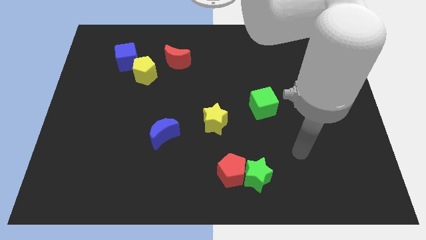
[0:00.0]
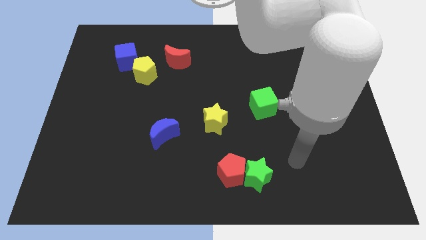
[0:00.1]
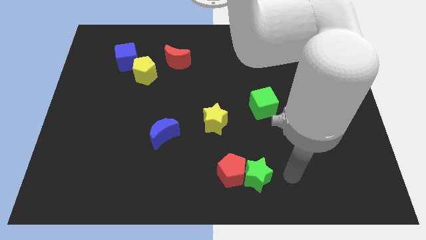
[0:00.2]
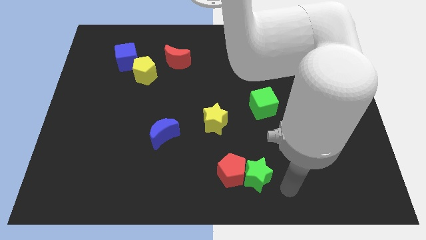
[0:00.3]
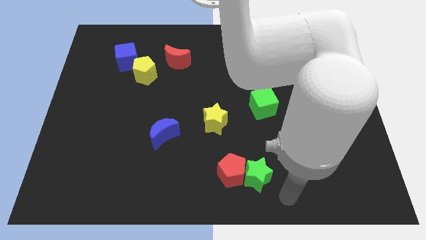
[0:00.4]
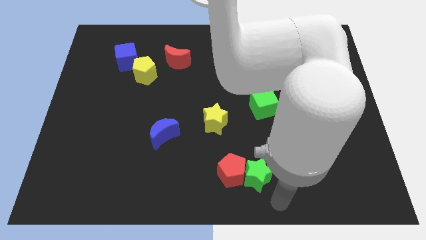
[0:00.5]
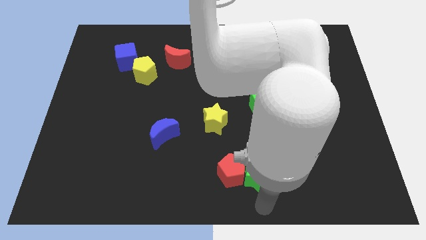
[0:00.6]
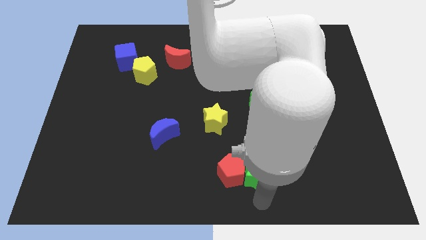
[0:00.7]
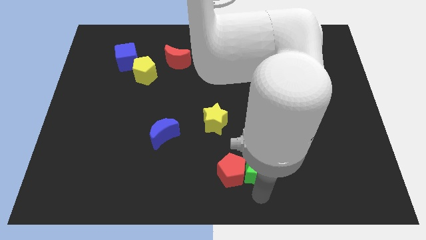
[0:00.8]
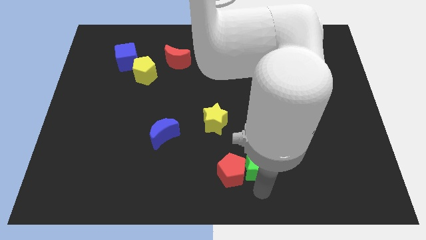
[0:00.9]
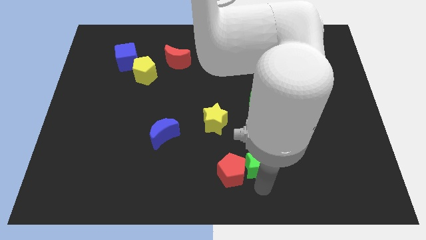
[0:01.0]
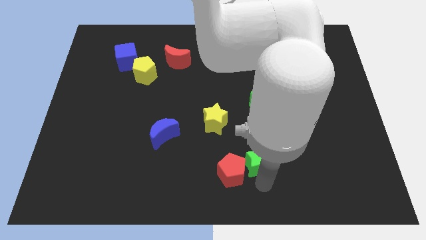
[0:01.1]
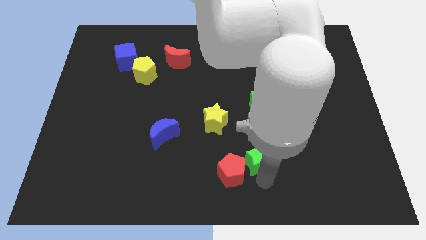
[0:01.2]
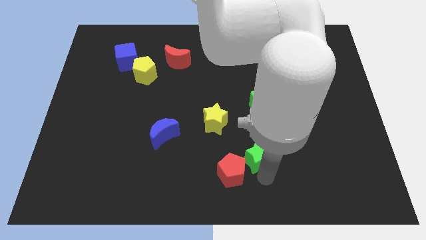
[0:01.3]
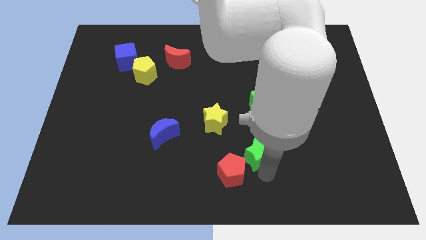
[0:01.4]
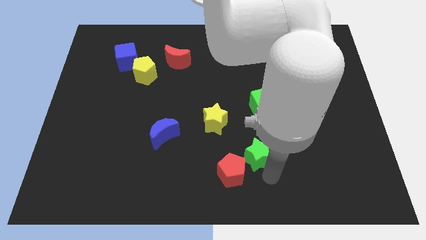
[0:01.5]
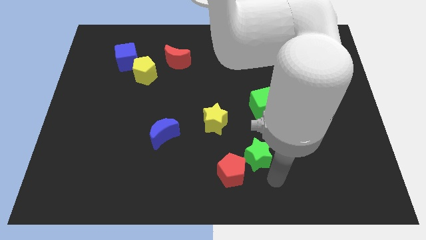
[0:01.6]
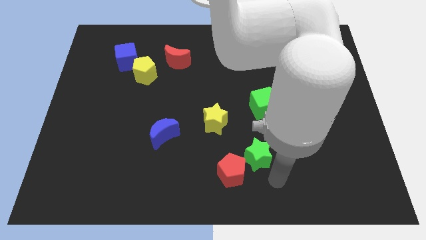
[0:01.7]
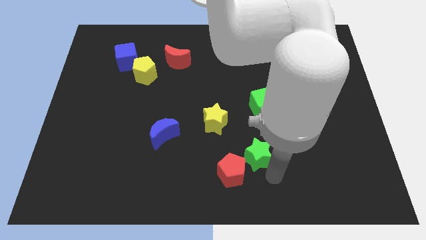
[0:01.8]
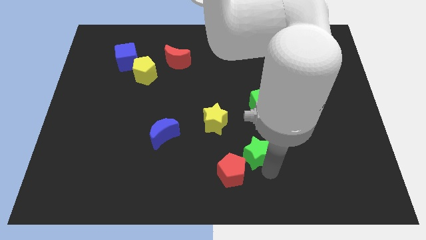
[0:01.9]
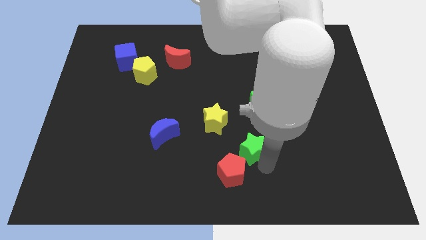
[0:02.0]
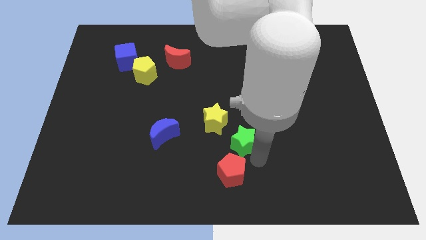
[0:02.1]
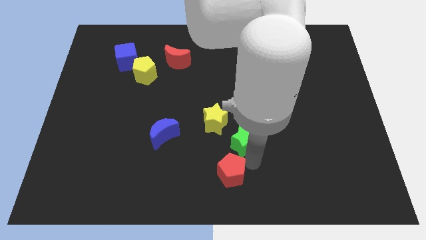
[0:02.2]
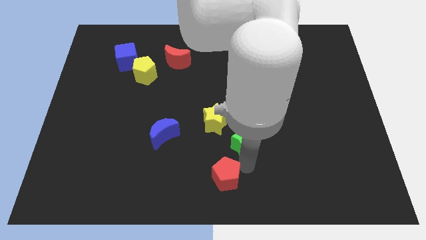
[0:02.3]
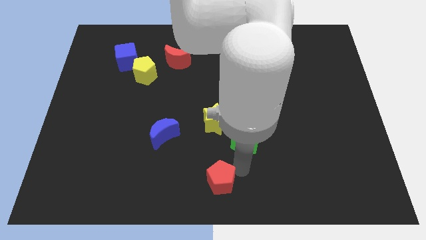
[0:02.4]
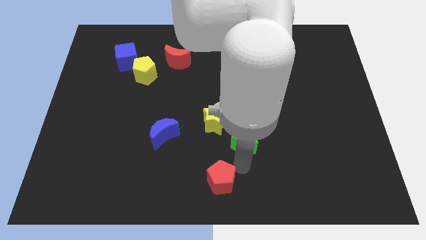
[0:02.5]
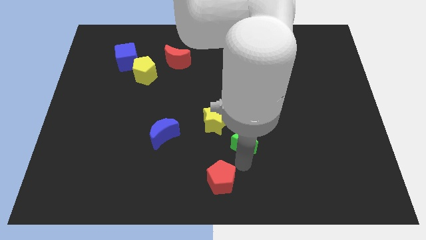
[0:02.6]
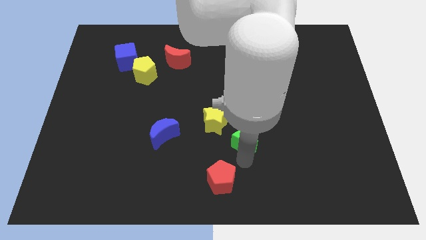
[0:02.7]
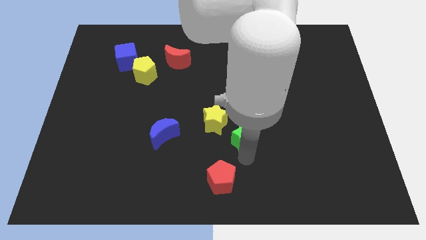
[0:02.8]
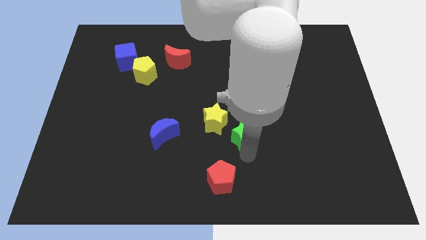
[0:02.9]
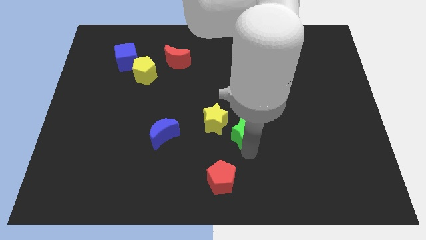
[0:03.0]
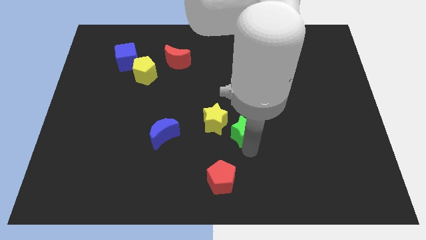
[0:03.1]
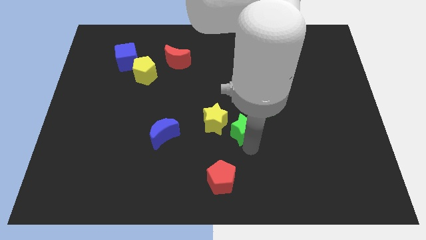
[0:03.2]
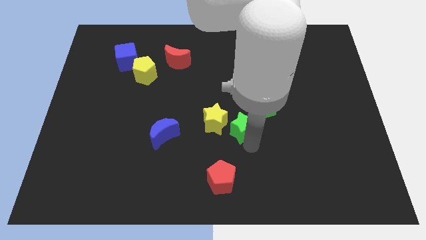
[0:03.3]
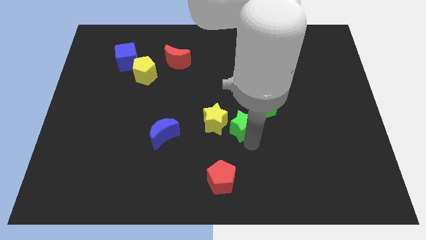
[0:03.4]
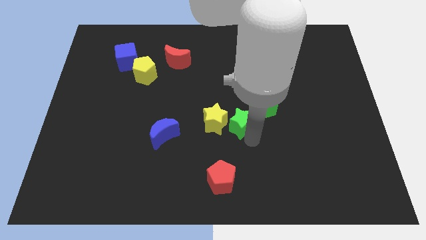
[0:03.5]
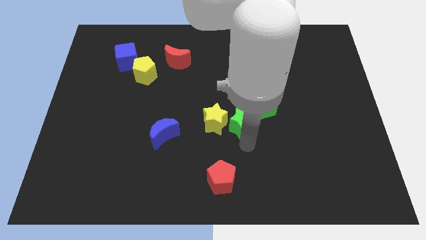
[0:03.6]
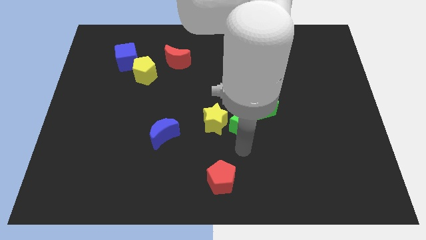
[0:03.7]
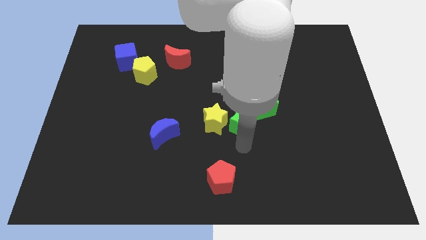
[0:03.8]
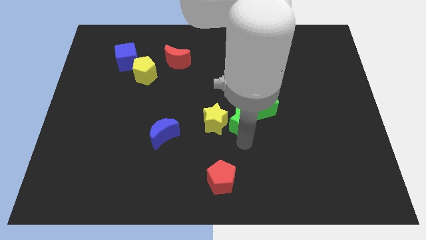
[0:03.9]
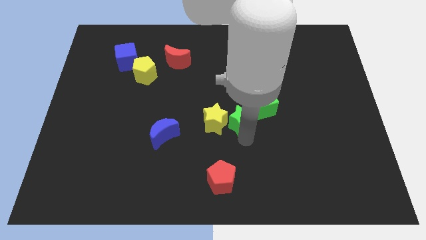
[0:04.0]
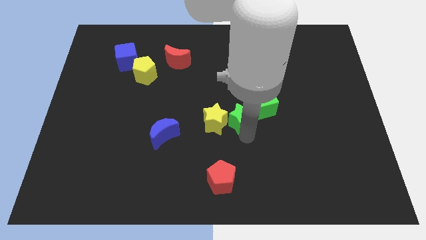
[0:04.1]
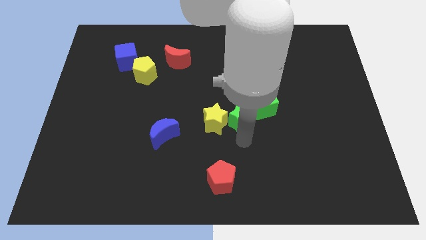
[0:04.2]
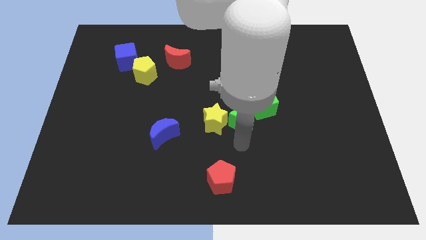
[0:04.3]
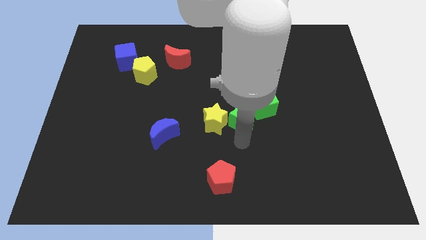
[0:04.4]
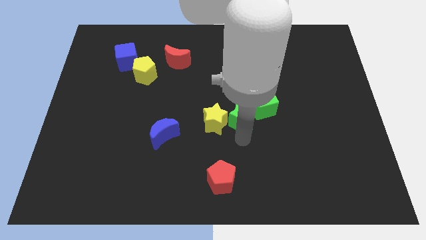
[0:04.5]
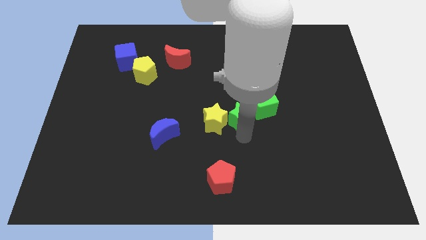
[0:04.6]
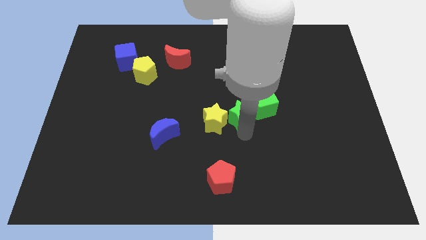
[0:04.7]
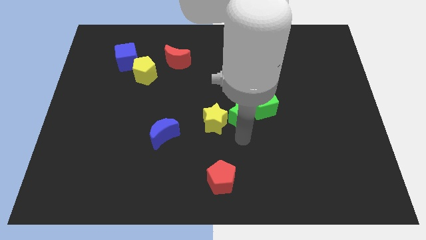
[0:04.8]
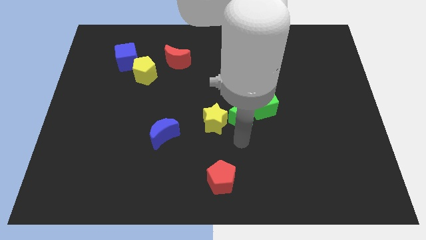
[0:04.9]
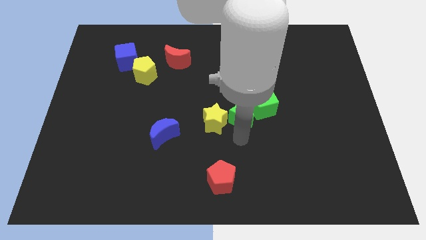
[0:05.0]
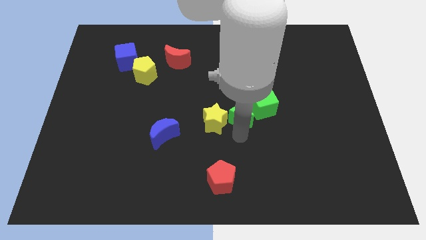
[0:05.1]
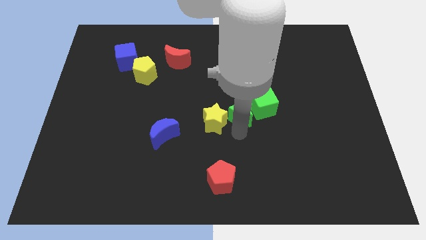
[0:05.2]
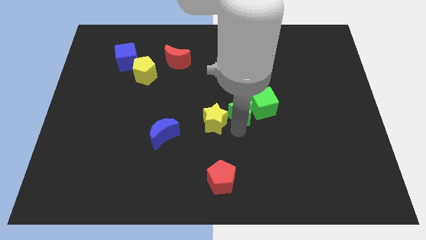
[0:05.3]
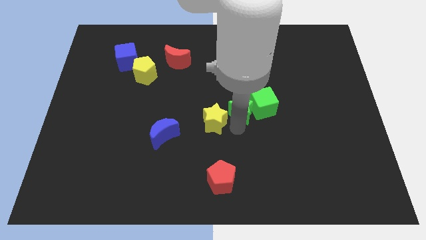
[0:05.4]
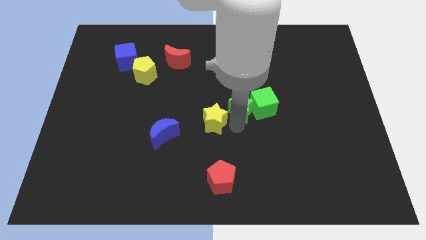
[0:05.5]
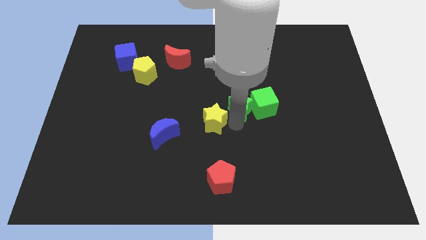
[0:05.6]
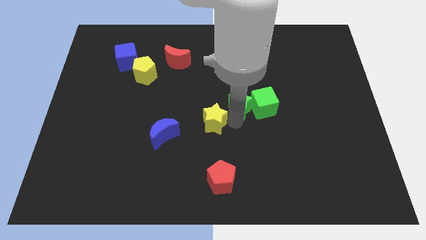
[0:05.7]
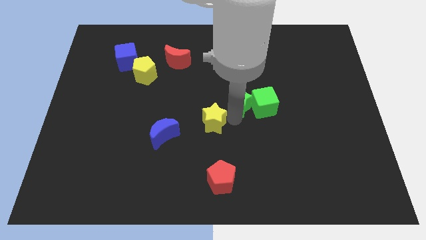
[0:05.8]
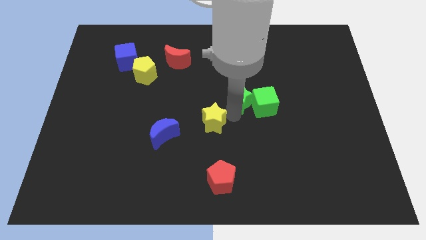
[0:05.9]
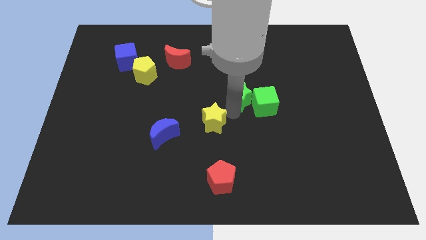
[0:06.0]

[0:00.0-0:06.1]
slide the green star up

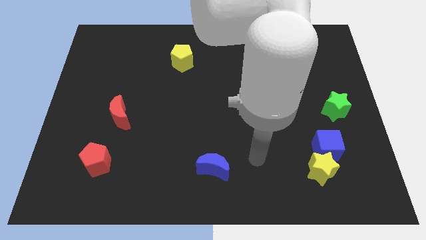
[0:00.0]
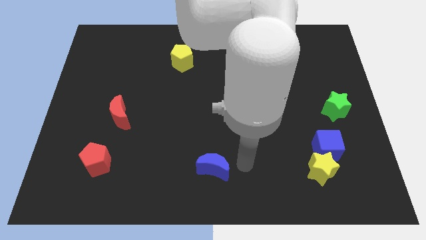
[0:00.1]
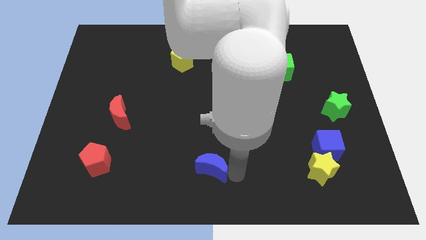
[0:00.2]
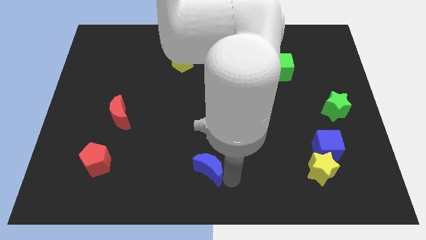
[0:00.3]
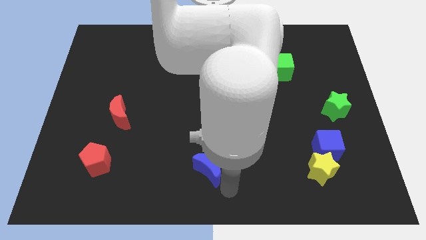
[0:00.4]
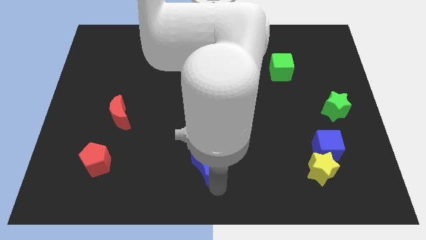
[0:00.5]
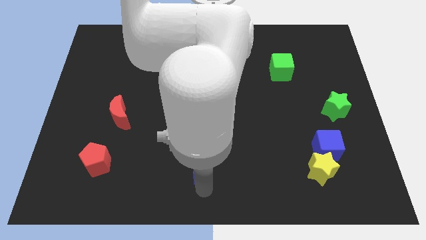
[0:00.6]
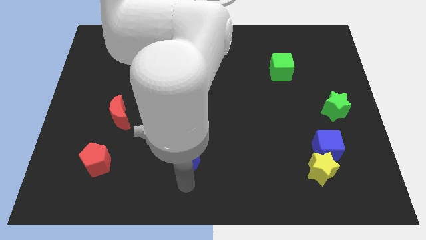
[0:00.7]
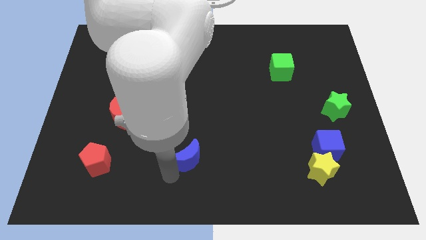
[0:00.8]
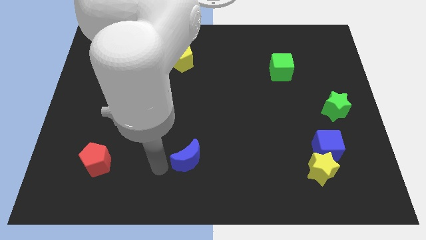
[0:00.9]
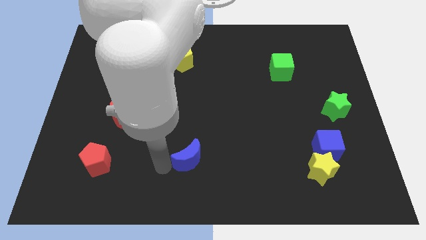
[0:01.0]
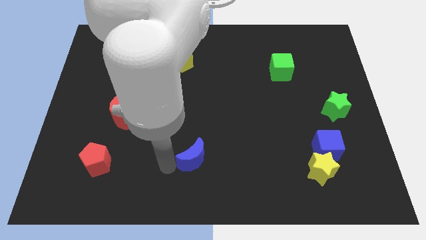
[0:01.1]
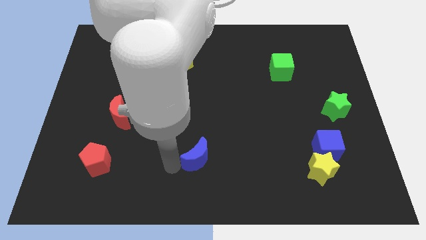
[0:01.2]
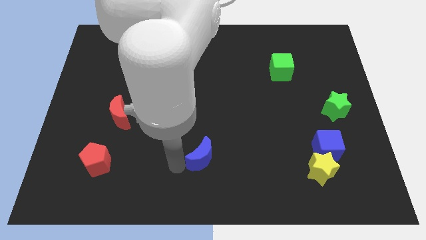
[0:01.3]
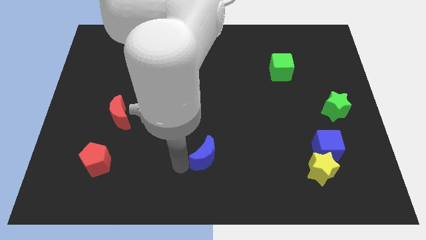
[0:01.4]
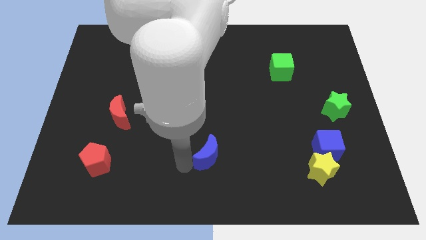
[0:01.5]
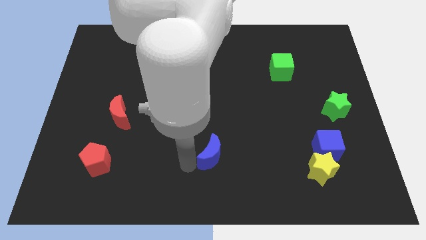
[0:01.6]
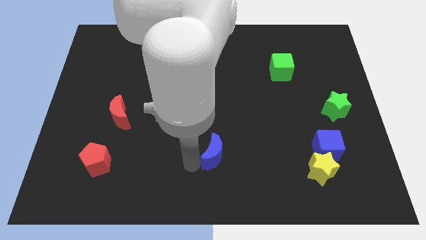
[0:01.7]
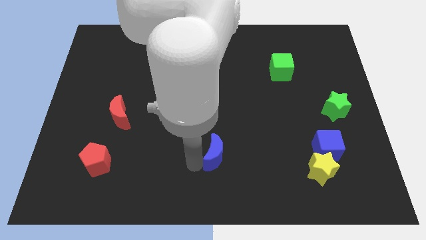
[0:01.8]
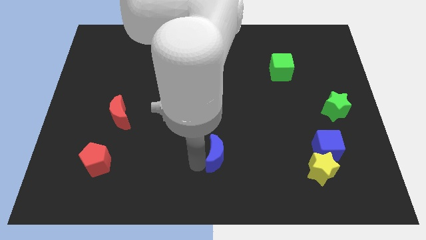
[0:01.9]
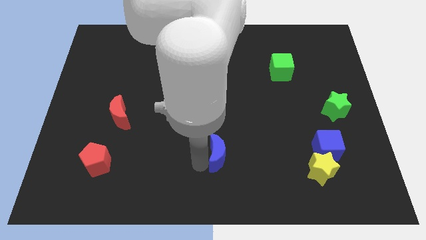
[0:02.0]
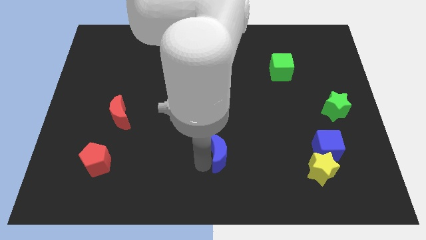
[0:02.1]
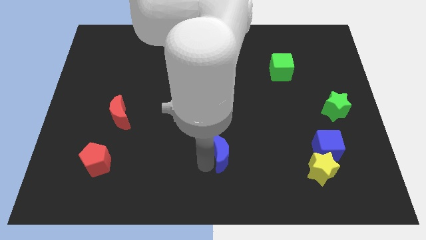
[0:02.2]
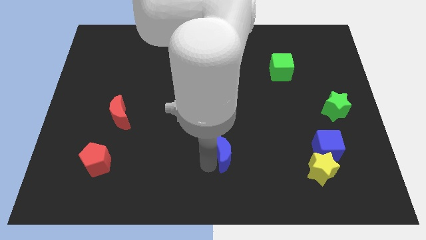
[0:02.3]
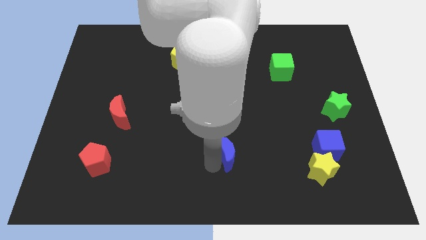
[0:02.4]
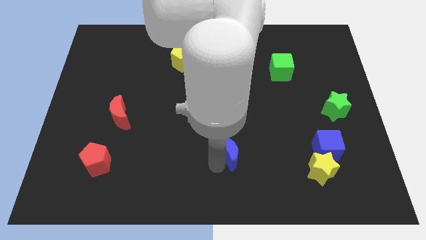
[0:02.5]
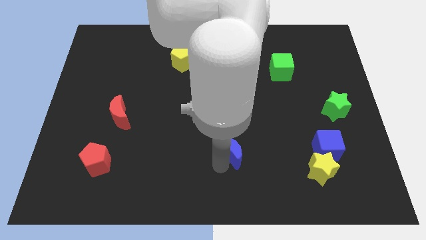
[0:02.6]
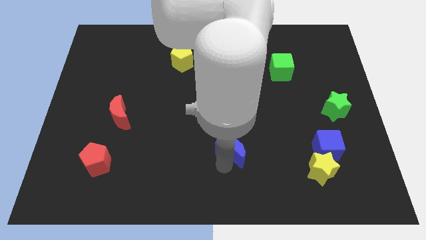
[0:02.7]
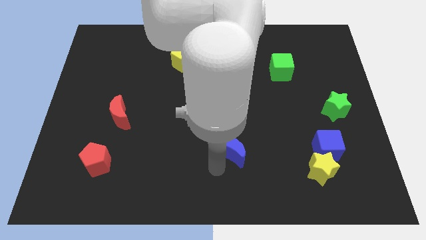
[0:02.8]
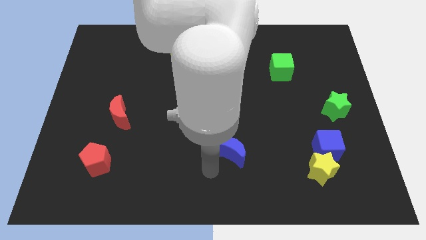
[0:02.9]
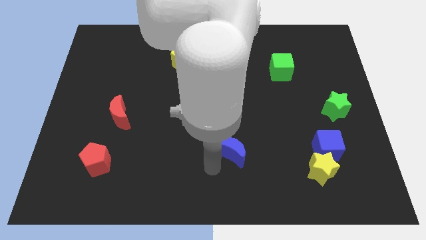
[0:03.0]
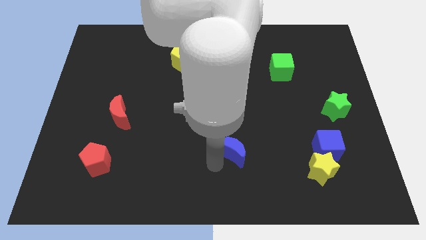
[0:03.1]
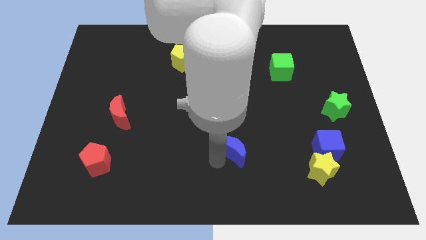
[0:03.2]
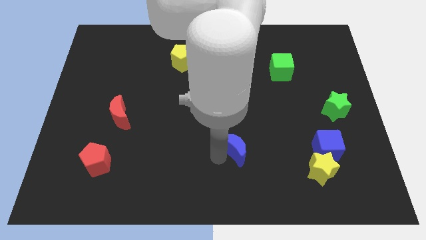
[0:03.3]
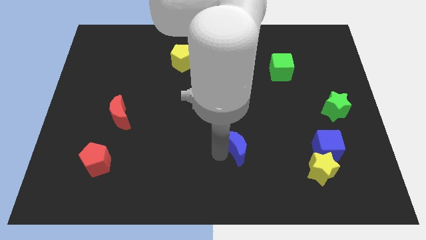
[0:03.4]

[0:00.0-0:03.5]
slightly move the blue moon up and then to the right
